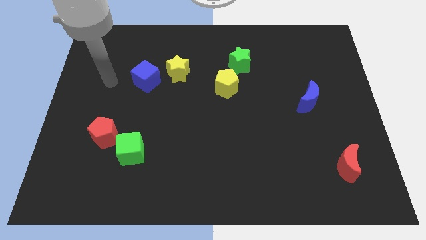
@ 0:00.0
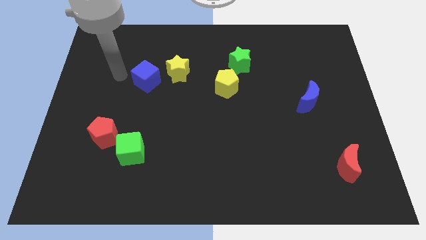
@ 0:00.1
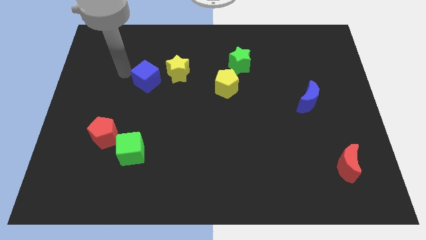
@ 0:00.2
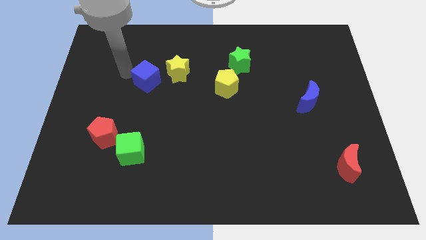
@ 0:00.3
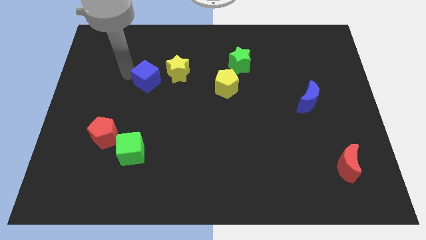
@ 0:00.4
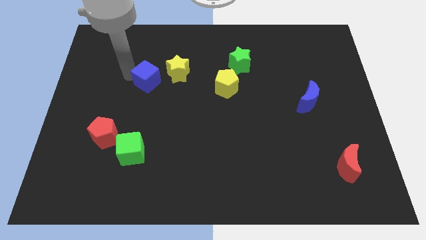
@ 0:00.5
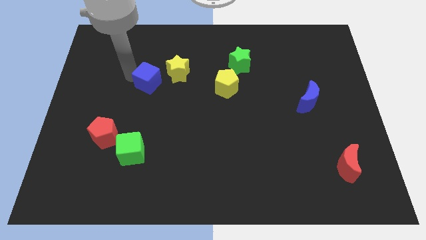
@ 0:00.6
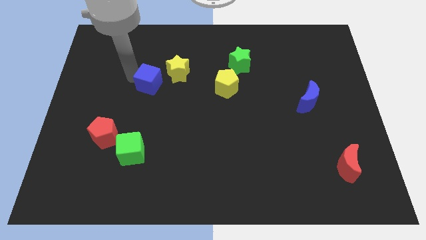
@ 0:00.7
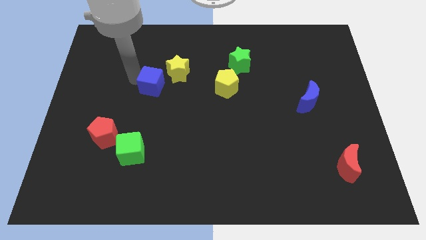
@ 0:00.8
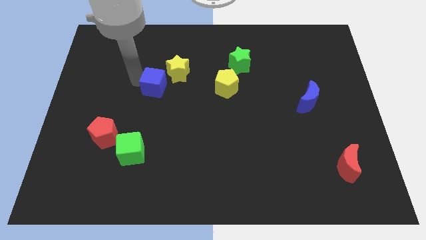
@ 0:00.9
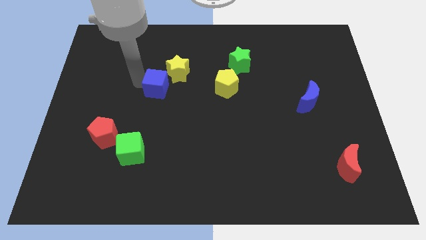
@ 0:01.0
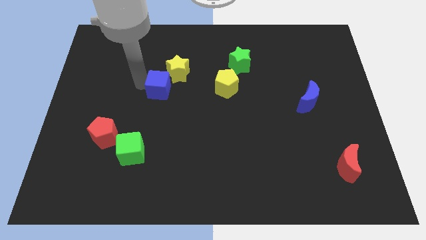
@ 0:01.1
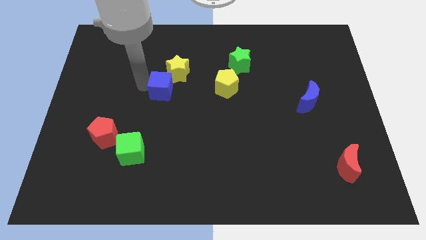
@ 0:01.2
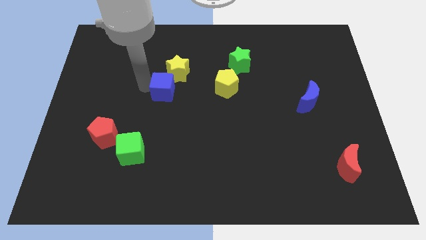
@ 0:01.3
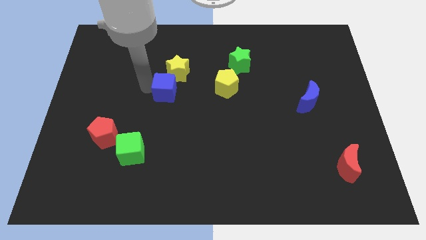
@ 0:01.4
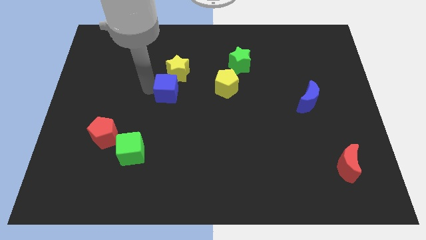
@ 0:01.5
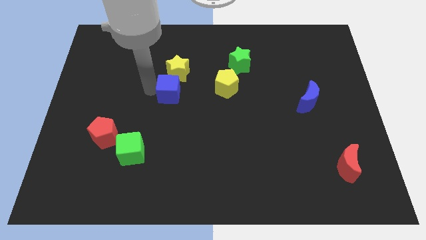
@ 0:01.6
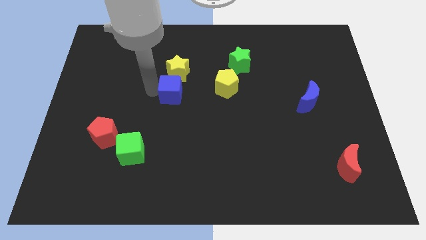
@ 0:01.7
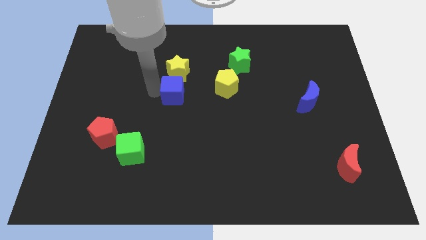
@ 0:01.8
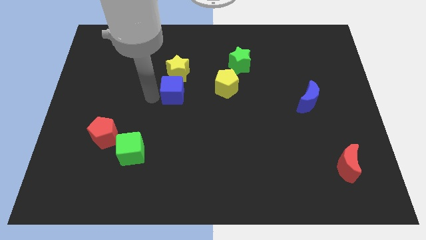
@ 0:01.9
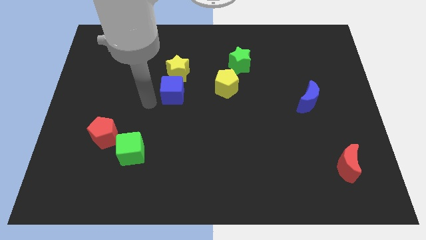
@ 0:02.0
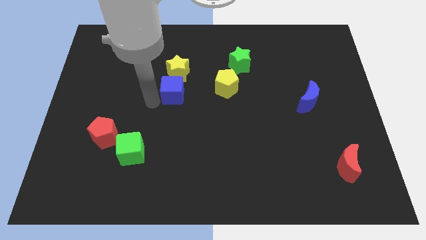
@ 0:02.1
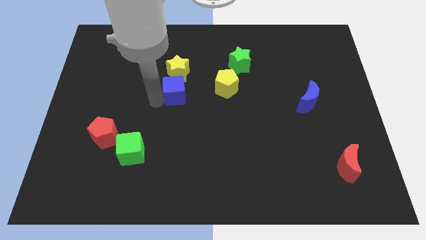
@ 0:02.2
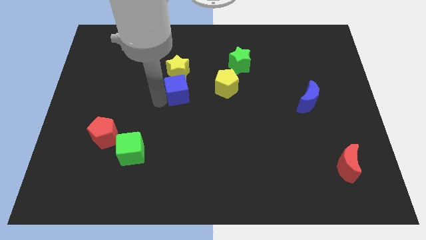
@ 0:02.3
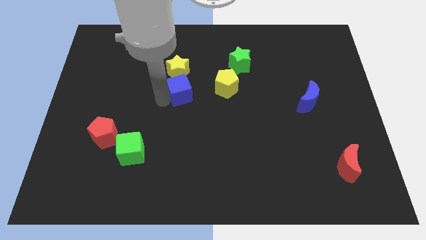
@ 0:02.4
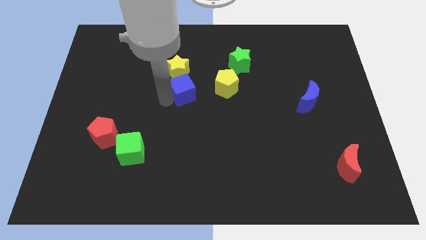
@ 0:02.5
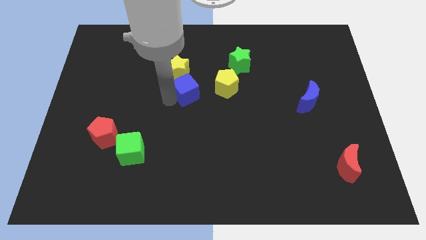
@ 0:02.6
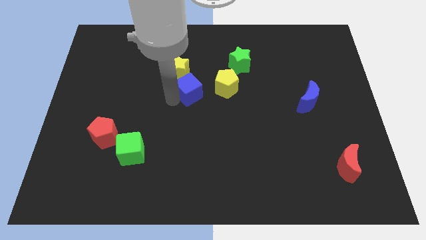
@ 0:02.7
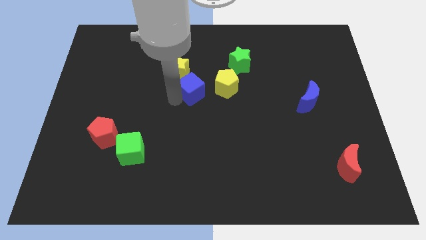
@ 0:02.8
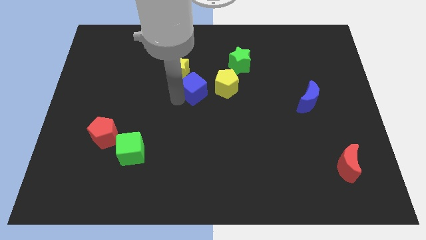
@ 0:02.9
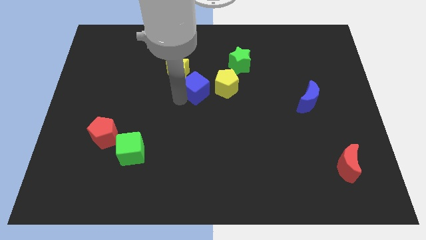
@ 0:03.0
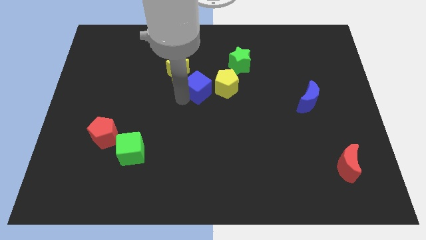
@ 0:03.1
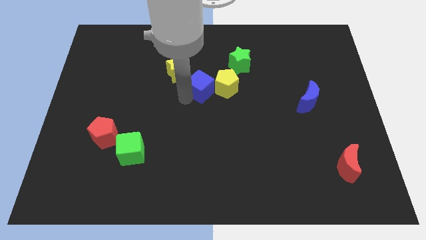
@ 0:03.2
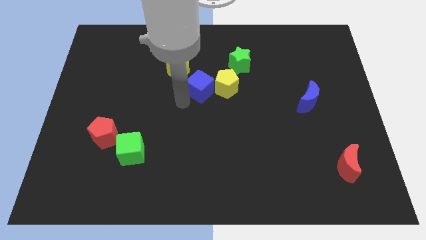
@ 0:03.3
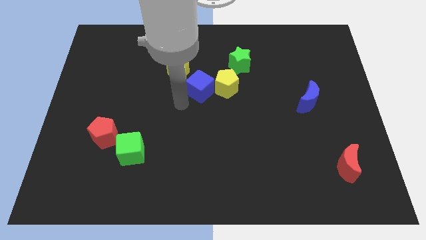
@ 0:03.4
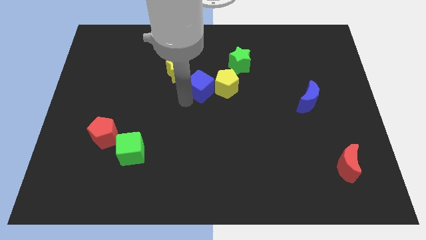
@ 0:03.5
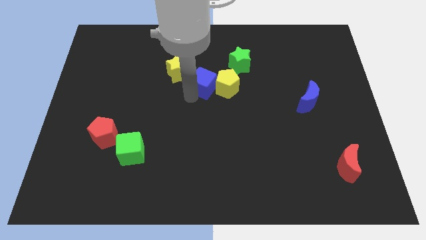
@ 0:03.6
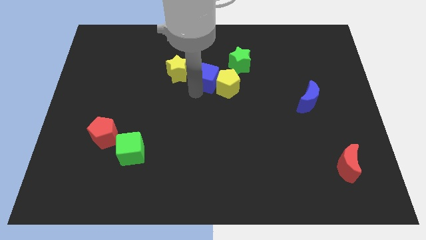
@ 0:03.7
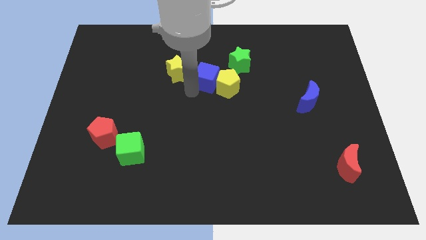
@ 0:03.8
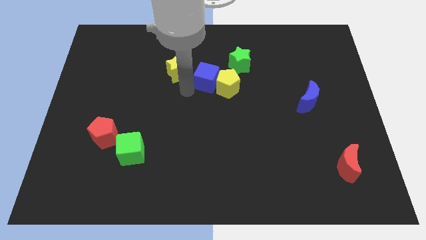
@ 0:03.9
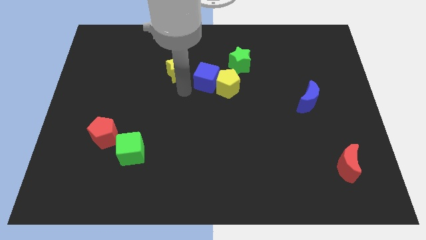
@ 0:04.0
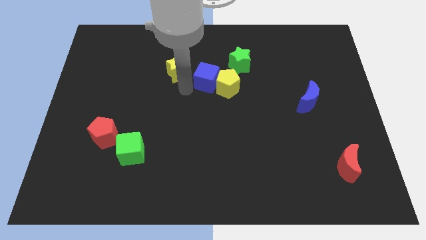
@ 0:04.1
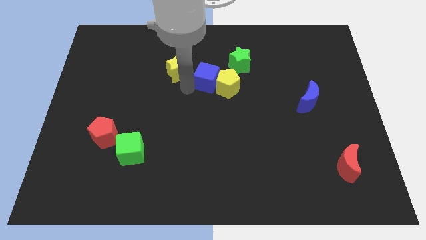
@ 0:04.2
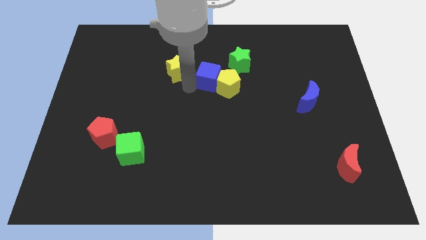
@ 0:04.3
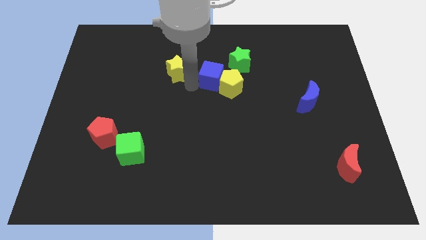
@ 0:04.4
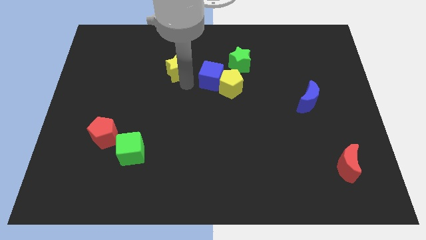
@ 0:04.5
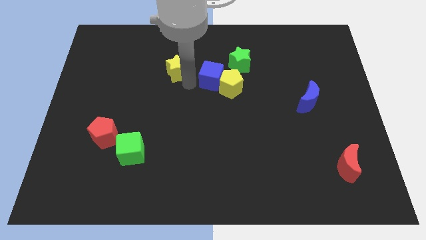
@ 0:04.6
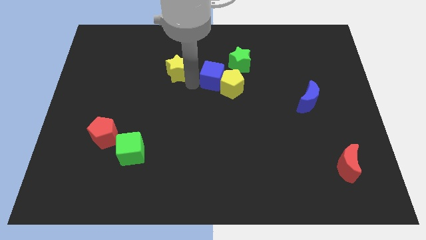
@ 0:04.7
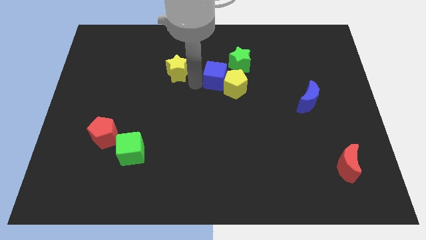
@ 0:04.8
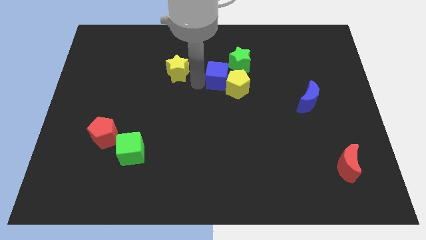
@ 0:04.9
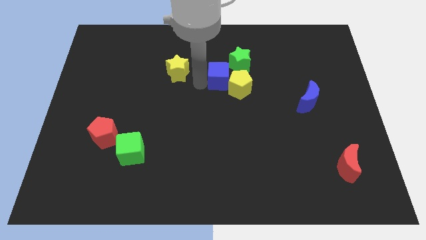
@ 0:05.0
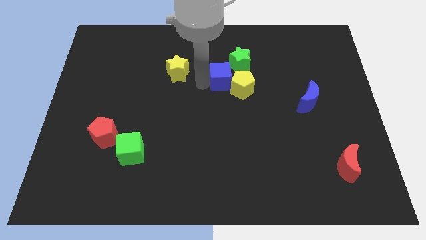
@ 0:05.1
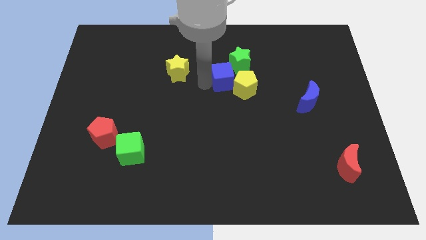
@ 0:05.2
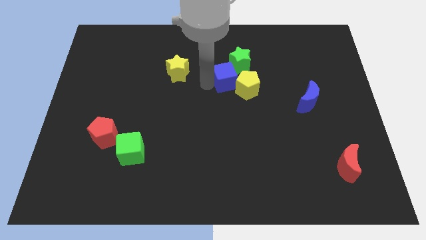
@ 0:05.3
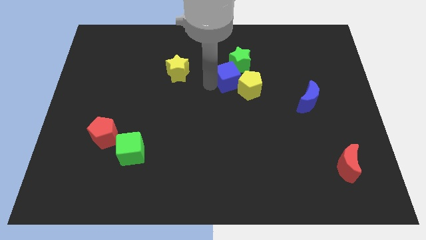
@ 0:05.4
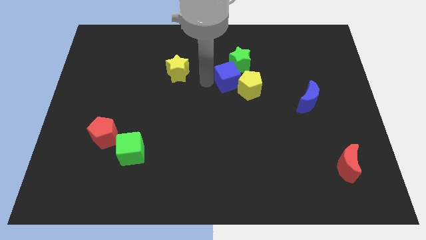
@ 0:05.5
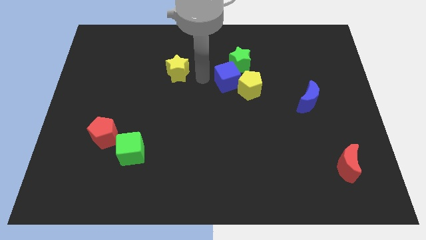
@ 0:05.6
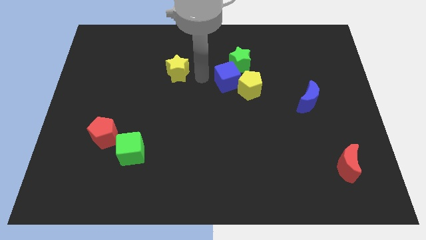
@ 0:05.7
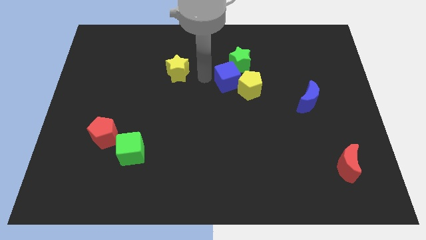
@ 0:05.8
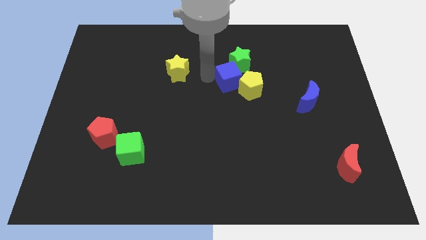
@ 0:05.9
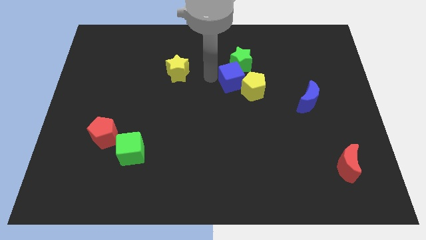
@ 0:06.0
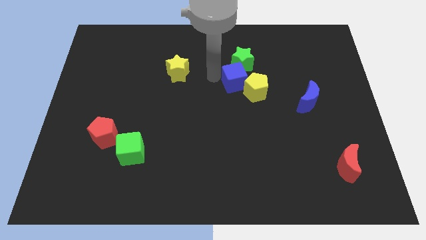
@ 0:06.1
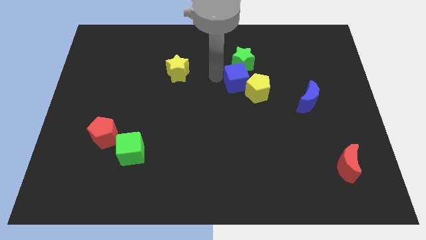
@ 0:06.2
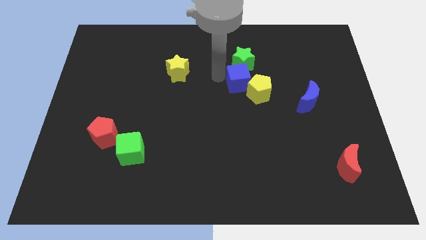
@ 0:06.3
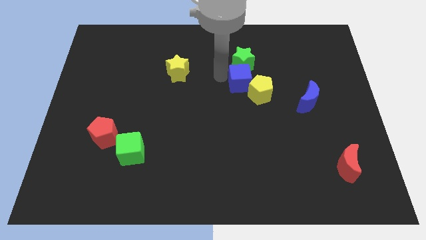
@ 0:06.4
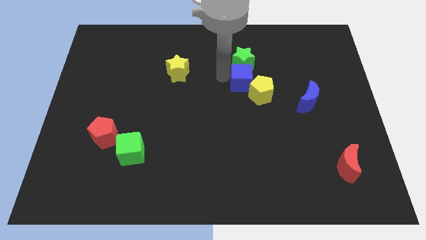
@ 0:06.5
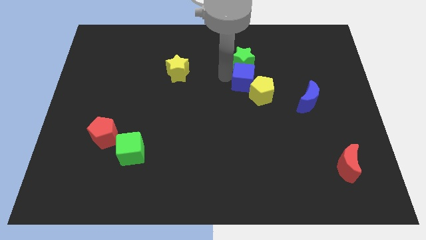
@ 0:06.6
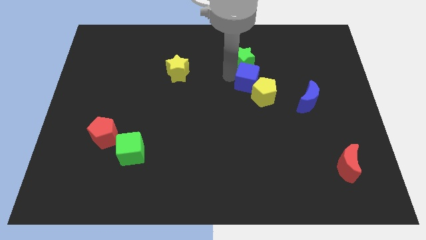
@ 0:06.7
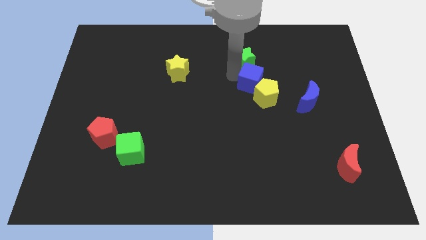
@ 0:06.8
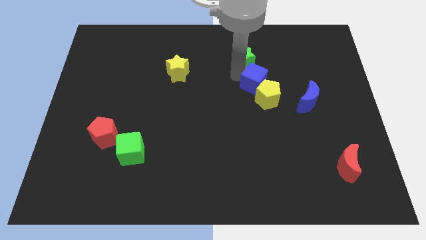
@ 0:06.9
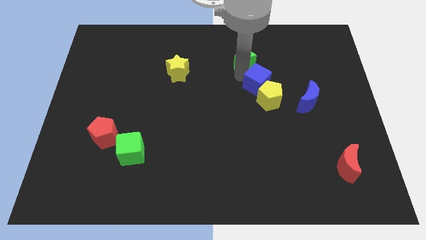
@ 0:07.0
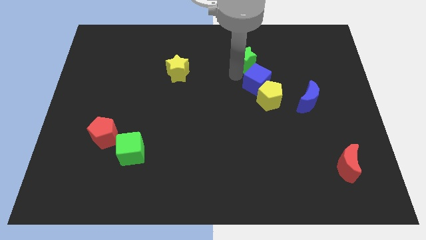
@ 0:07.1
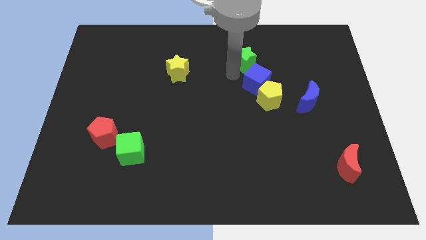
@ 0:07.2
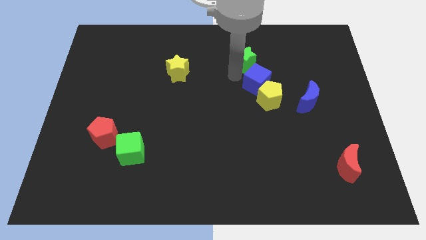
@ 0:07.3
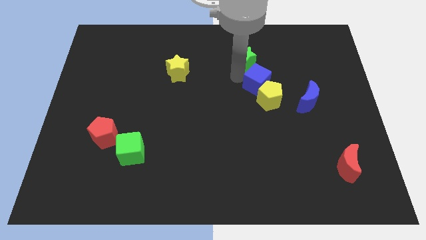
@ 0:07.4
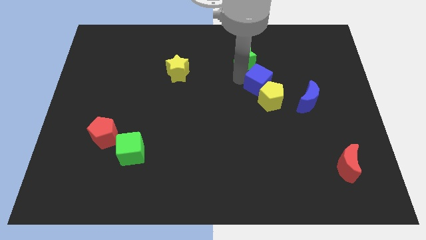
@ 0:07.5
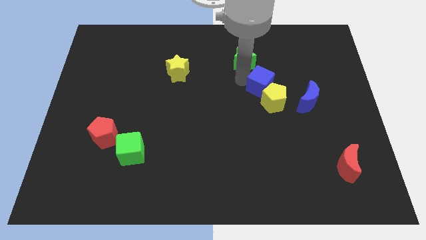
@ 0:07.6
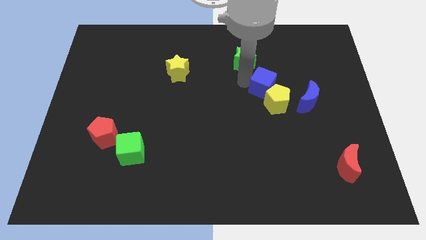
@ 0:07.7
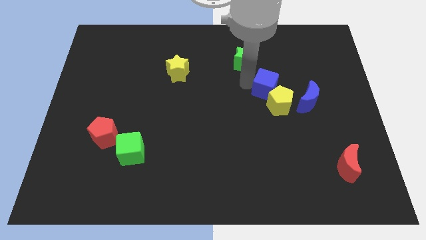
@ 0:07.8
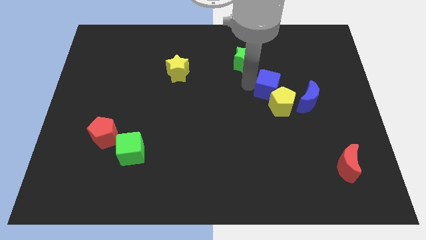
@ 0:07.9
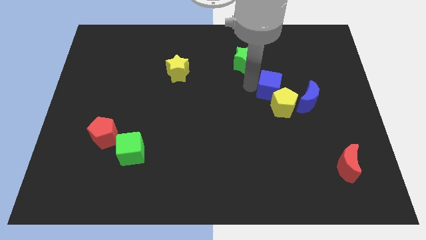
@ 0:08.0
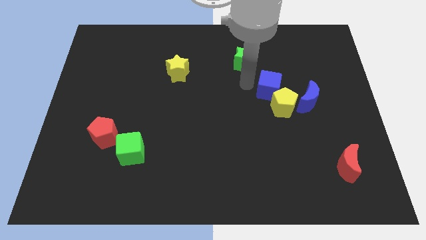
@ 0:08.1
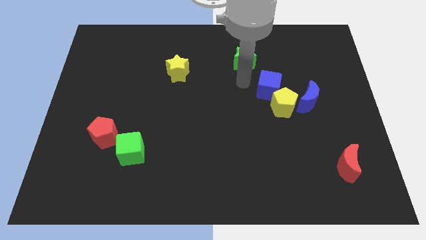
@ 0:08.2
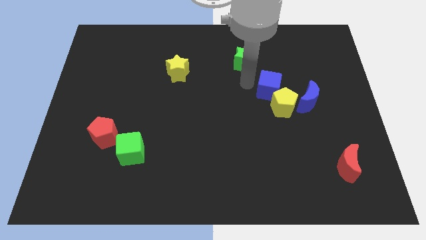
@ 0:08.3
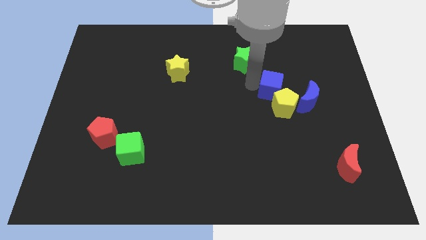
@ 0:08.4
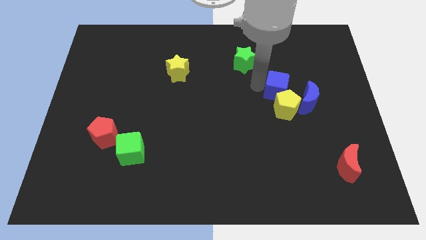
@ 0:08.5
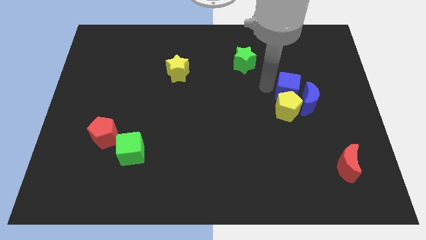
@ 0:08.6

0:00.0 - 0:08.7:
put the blue cube next to the blue moon
